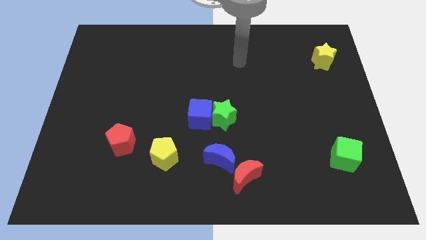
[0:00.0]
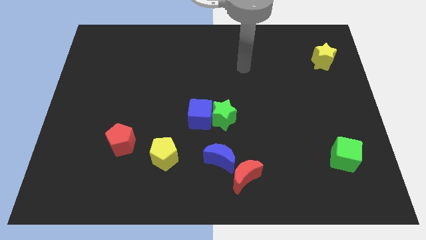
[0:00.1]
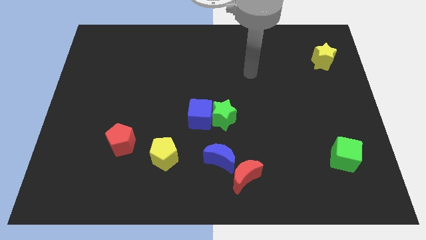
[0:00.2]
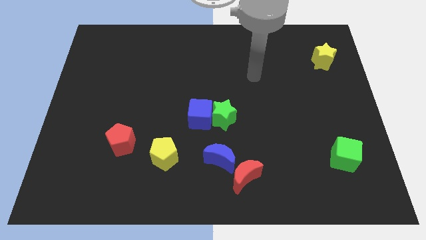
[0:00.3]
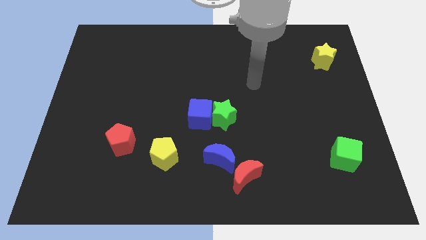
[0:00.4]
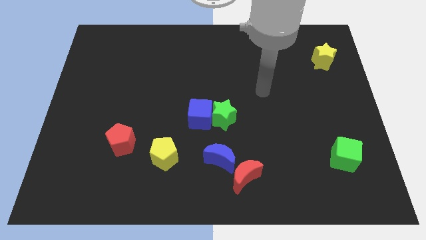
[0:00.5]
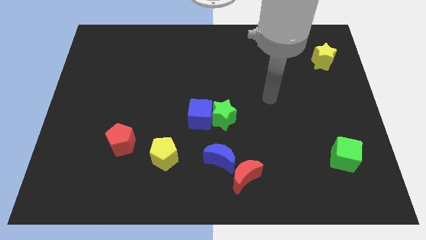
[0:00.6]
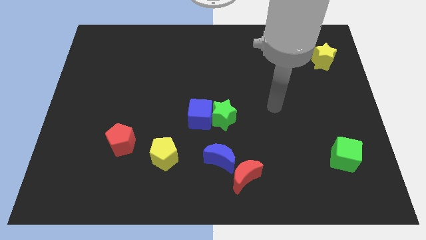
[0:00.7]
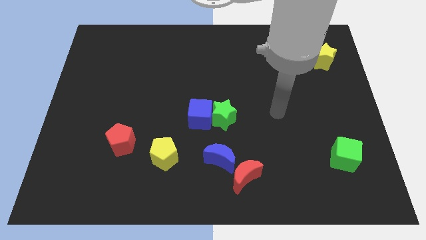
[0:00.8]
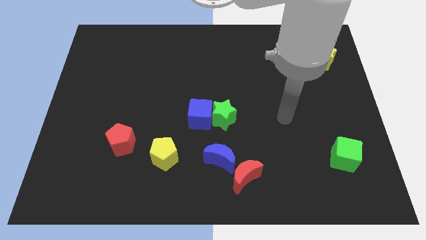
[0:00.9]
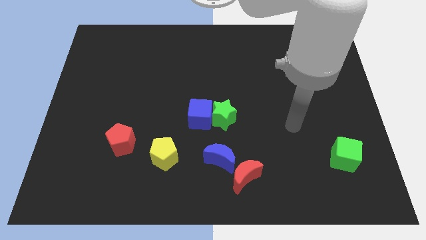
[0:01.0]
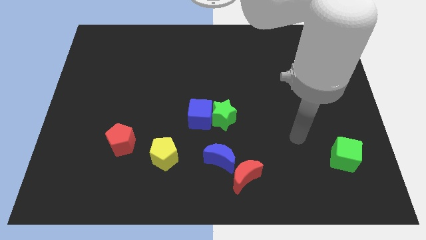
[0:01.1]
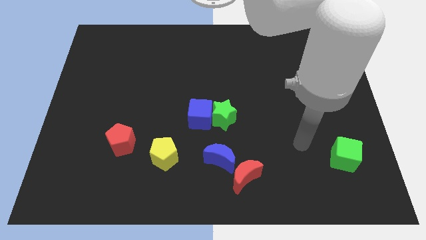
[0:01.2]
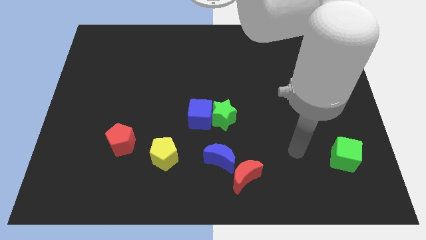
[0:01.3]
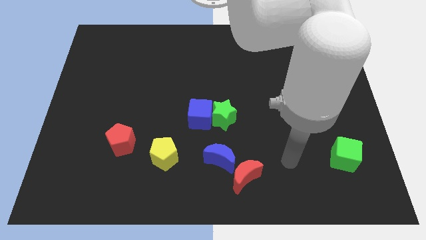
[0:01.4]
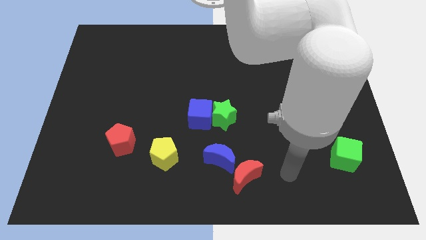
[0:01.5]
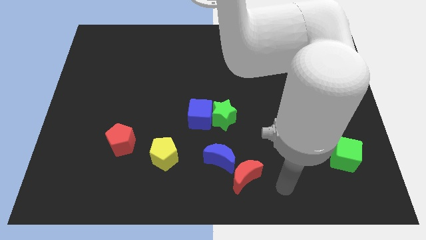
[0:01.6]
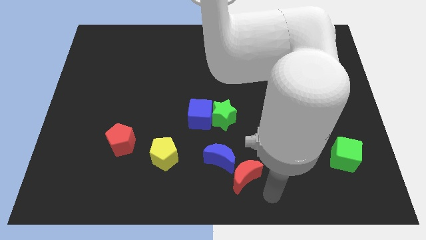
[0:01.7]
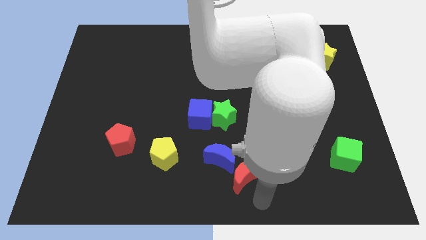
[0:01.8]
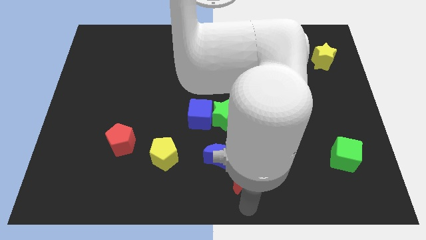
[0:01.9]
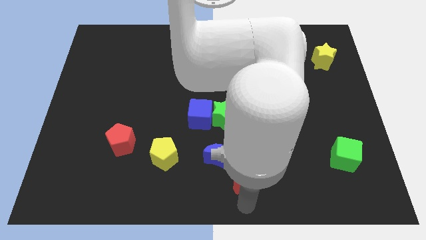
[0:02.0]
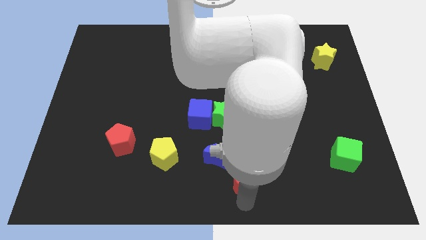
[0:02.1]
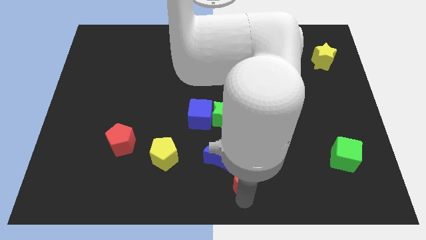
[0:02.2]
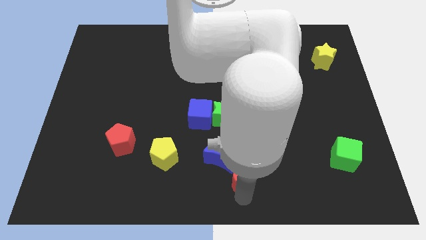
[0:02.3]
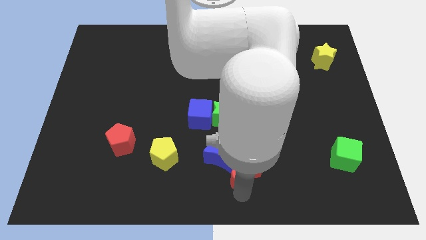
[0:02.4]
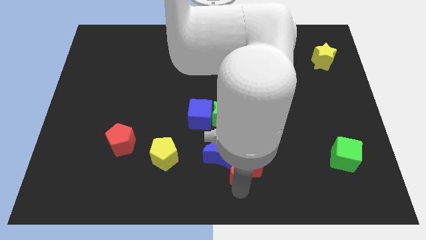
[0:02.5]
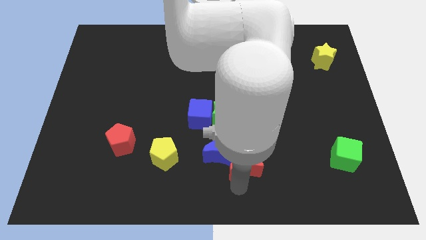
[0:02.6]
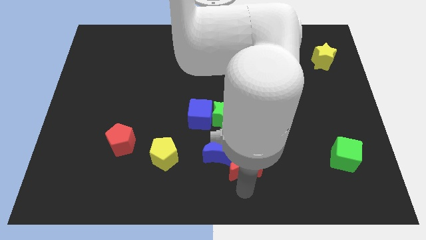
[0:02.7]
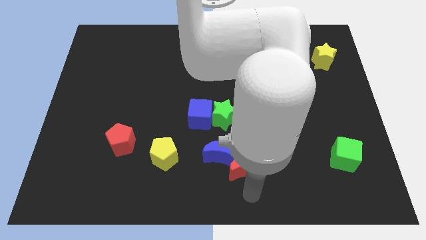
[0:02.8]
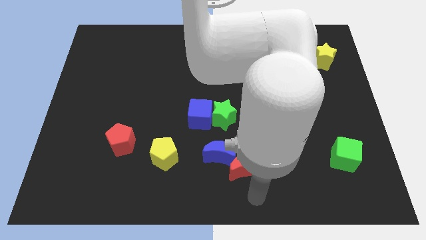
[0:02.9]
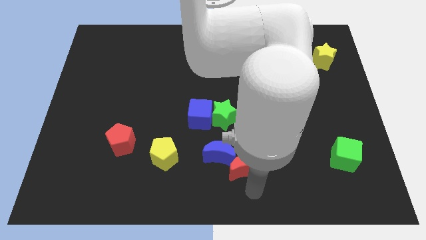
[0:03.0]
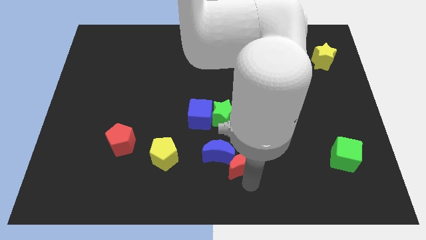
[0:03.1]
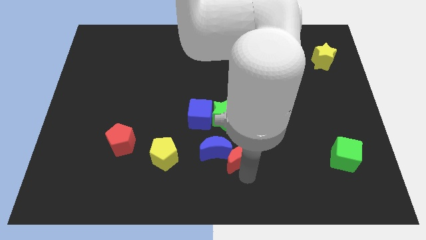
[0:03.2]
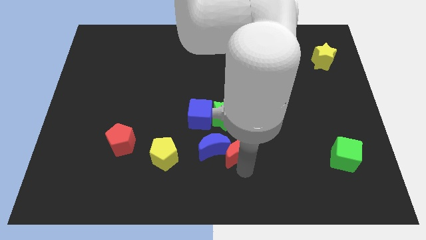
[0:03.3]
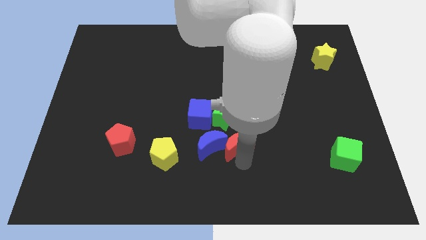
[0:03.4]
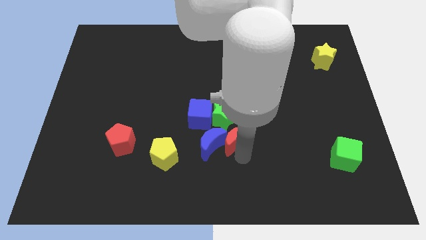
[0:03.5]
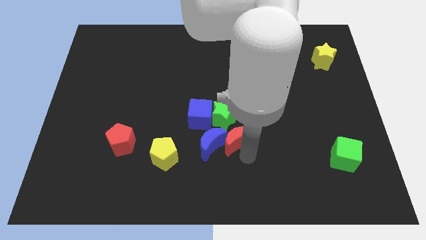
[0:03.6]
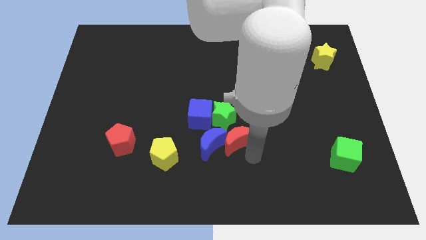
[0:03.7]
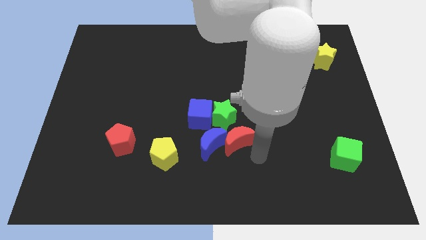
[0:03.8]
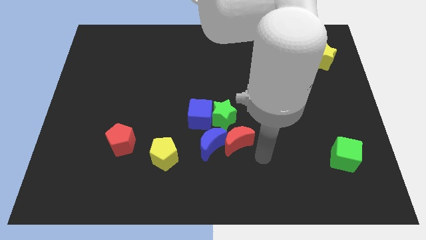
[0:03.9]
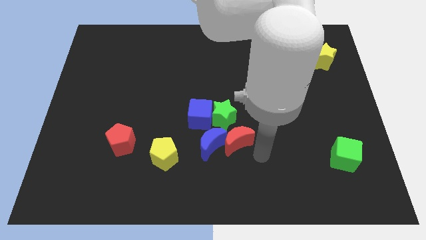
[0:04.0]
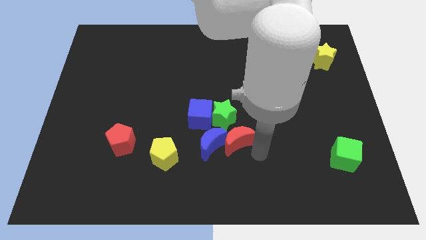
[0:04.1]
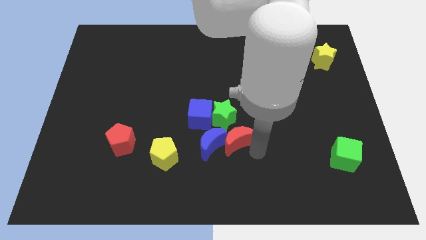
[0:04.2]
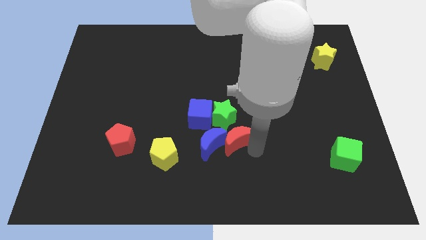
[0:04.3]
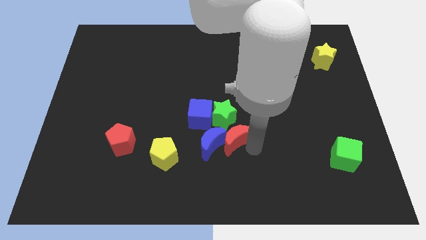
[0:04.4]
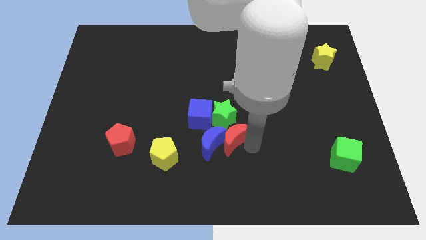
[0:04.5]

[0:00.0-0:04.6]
push the red moon up and then left a little

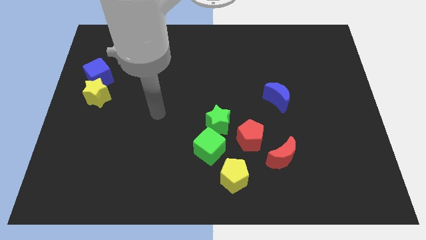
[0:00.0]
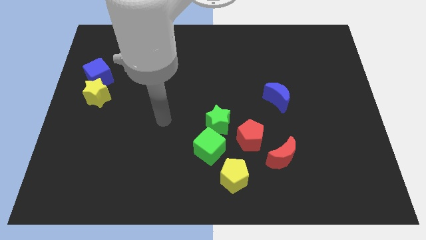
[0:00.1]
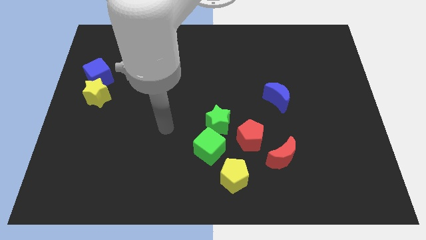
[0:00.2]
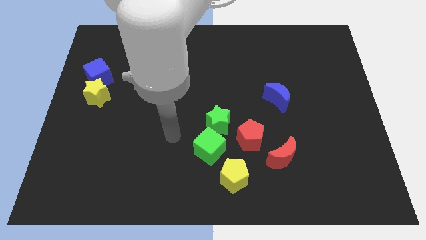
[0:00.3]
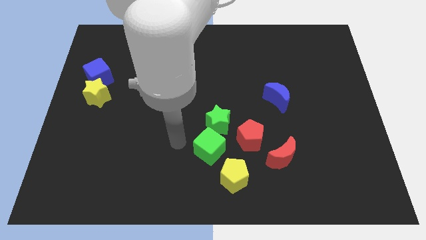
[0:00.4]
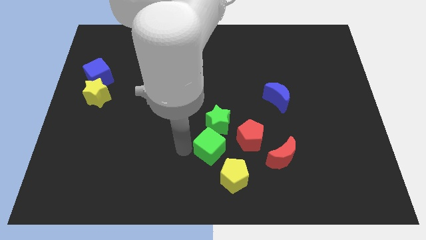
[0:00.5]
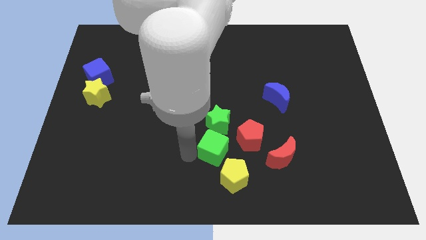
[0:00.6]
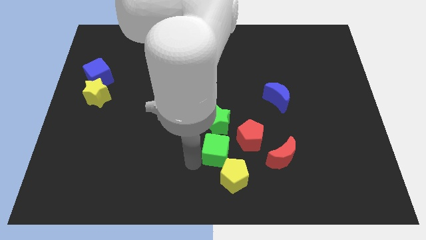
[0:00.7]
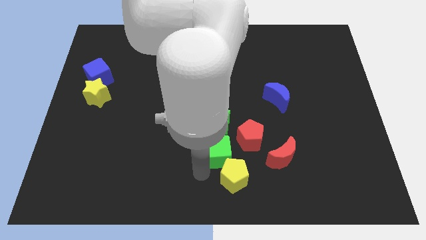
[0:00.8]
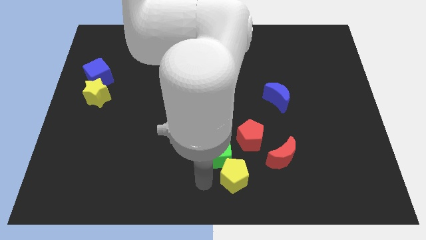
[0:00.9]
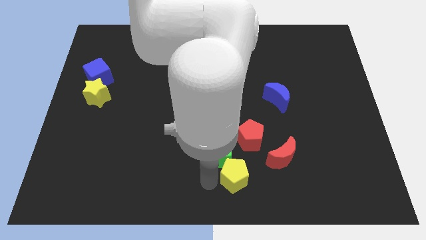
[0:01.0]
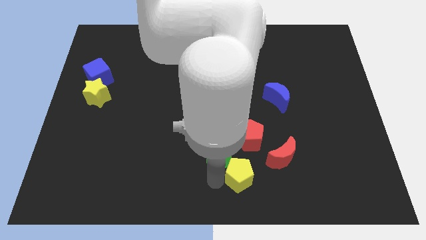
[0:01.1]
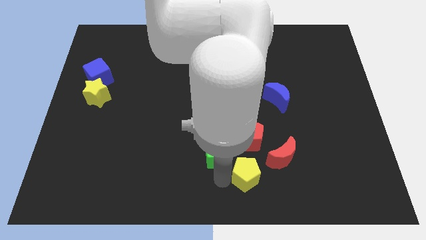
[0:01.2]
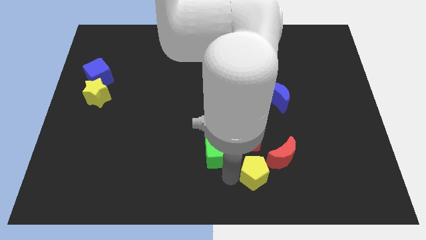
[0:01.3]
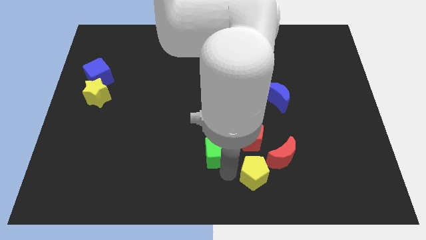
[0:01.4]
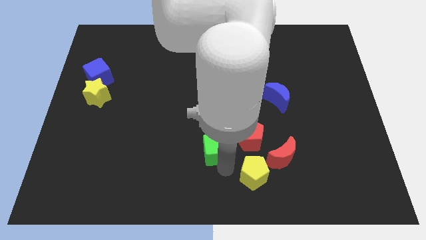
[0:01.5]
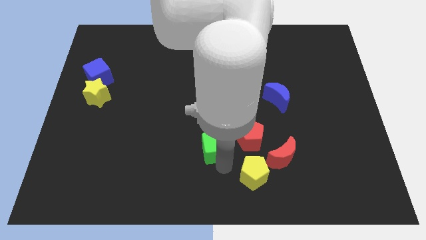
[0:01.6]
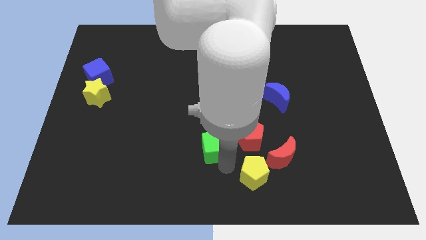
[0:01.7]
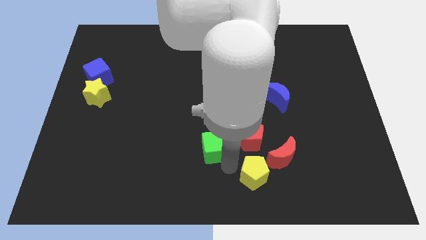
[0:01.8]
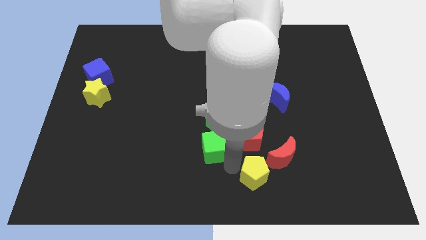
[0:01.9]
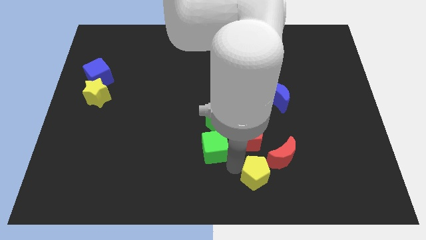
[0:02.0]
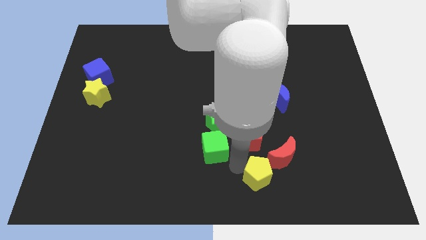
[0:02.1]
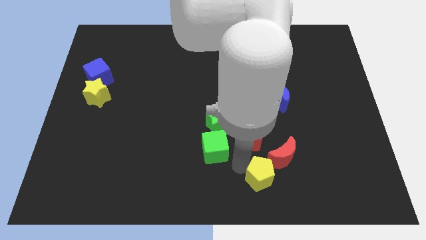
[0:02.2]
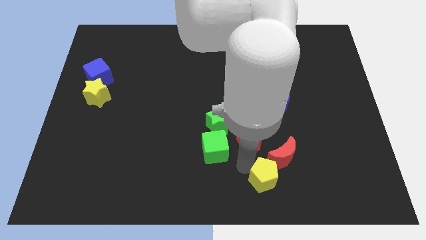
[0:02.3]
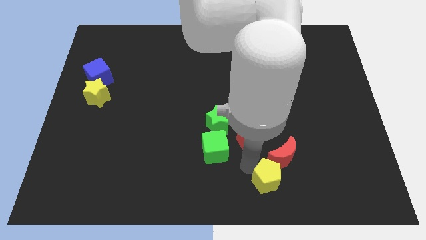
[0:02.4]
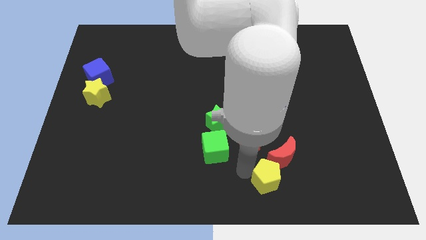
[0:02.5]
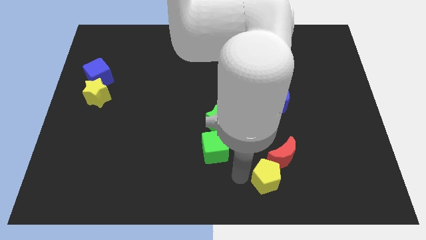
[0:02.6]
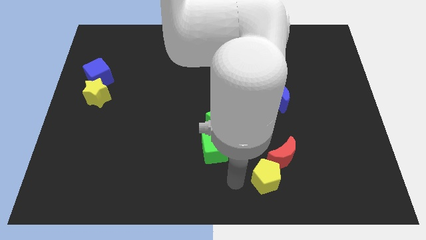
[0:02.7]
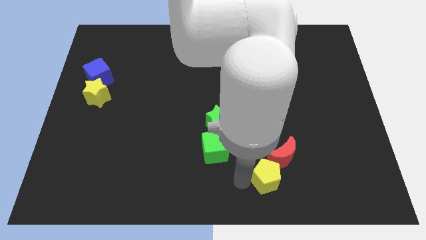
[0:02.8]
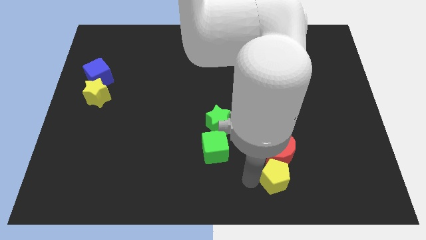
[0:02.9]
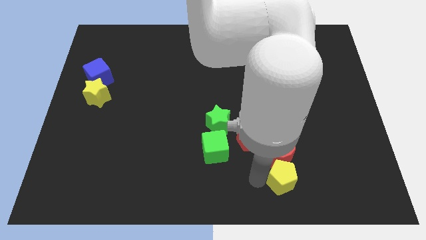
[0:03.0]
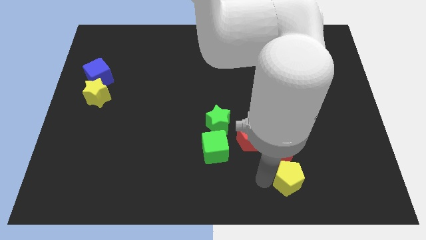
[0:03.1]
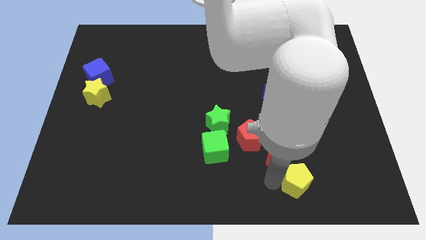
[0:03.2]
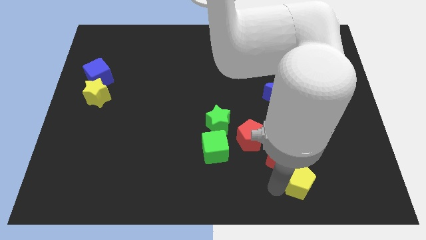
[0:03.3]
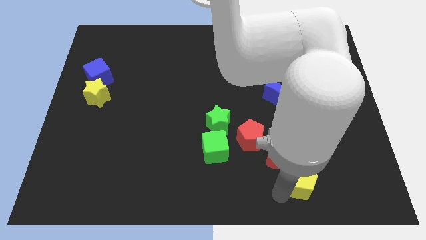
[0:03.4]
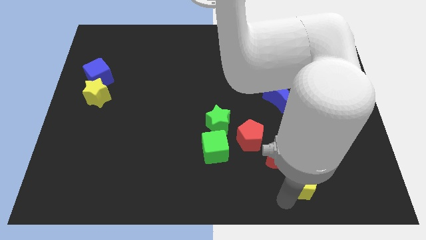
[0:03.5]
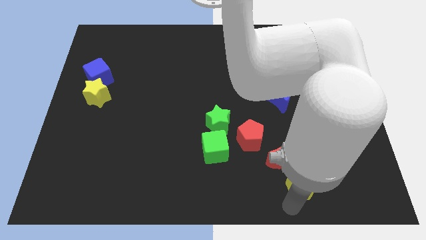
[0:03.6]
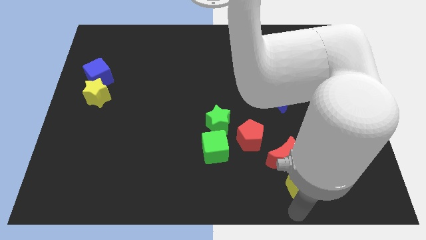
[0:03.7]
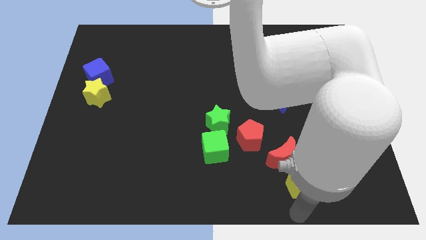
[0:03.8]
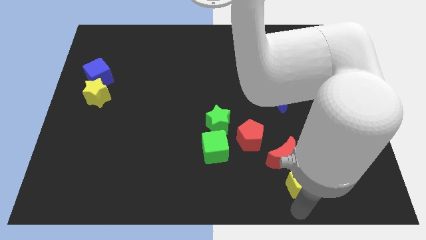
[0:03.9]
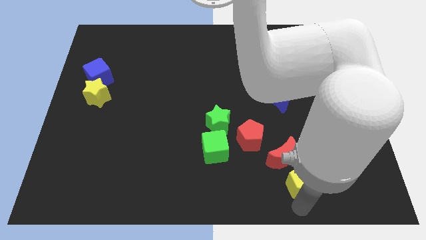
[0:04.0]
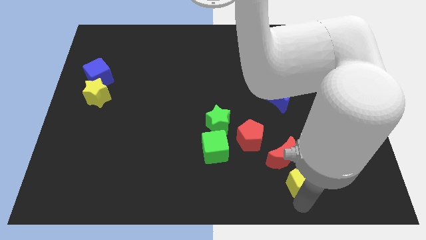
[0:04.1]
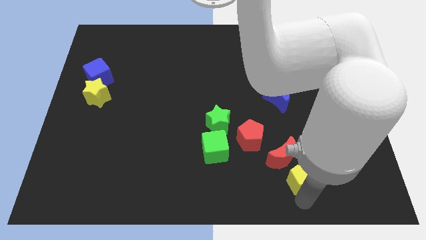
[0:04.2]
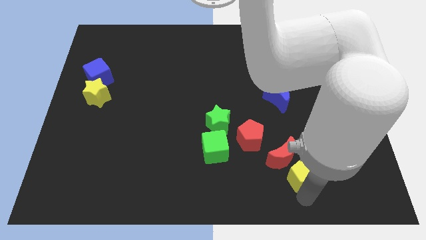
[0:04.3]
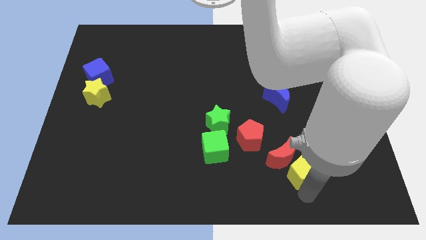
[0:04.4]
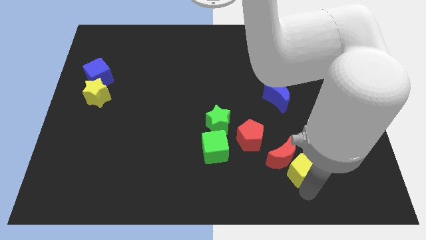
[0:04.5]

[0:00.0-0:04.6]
move the yellow pentagon slightly up and then to the right
